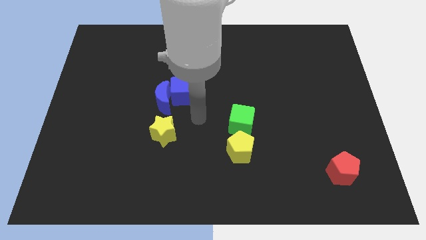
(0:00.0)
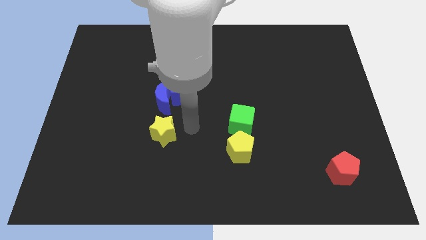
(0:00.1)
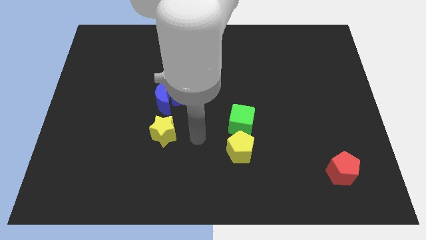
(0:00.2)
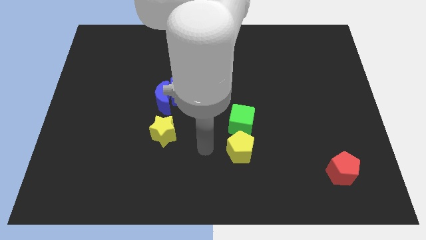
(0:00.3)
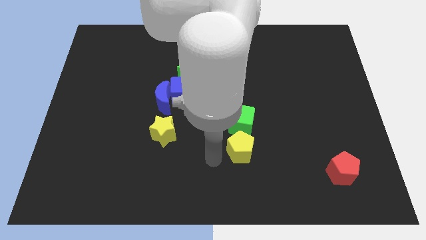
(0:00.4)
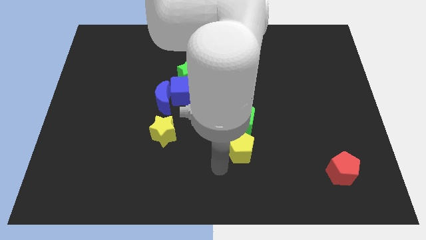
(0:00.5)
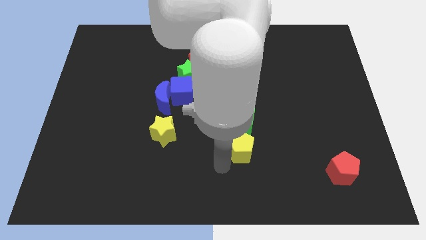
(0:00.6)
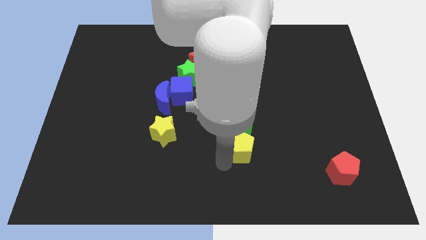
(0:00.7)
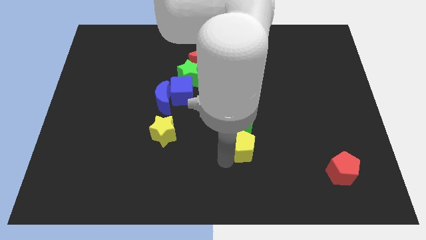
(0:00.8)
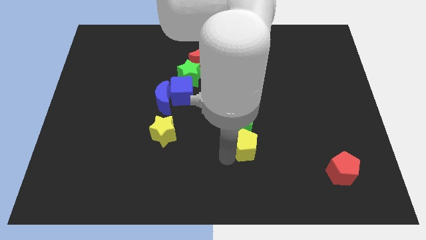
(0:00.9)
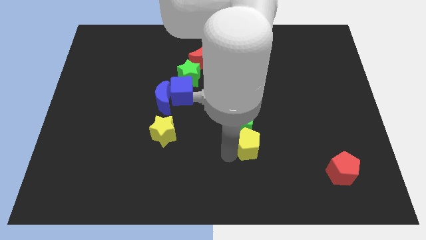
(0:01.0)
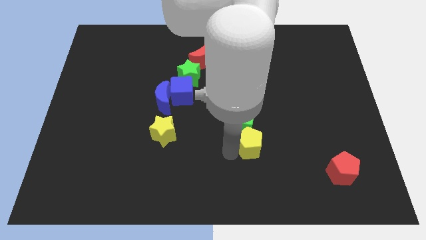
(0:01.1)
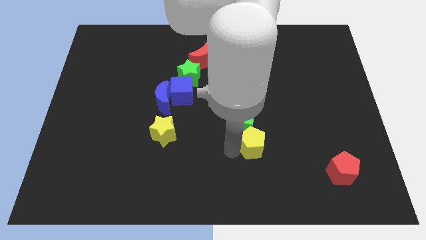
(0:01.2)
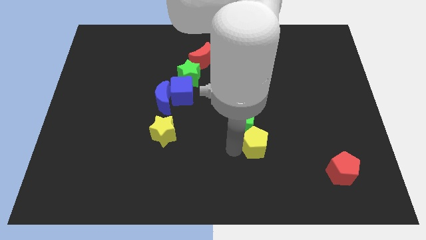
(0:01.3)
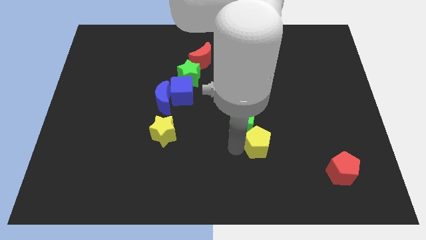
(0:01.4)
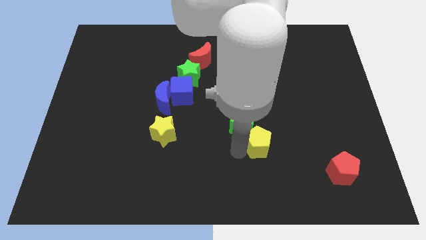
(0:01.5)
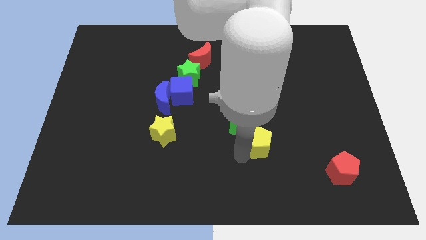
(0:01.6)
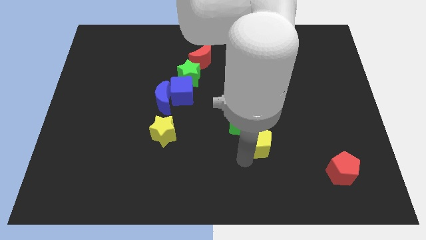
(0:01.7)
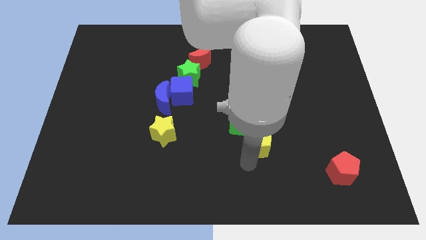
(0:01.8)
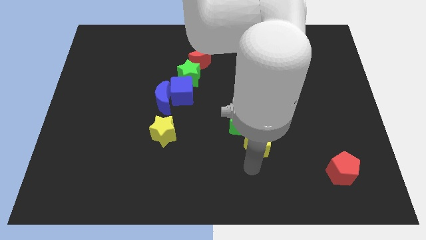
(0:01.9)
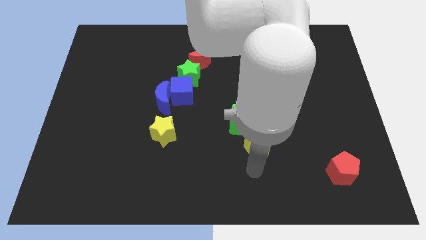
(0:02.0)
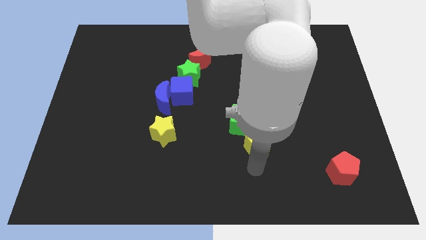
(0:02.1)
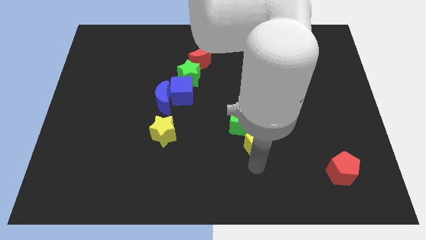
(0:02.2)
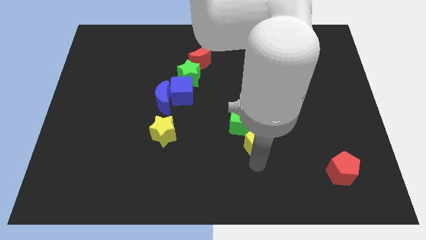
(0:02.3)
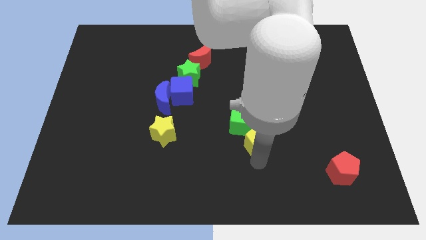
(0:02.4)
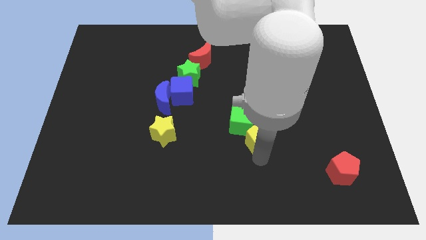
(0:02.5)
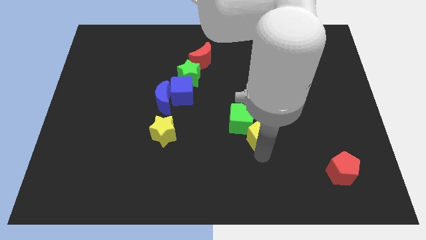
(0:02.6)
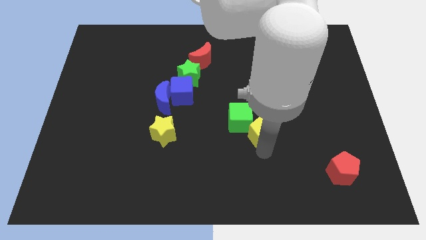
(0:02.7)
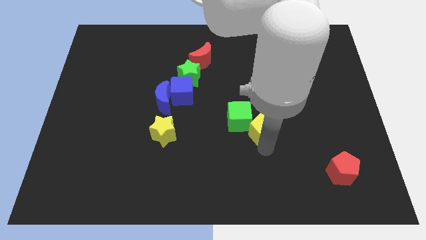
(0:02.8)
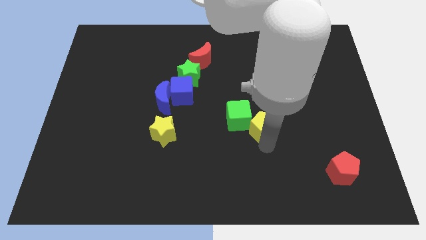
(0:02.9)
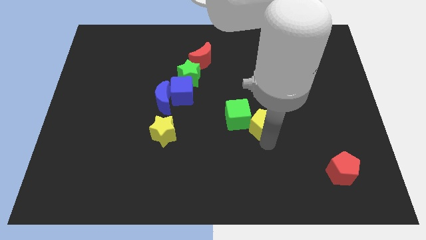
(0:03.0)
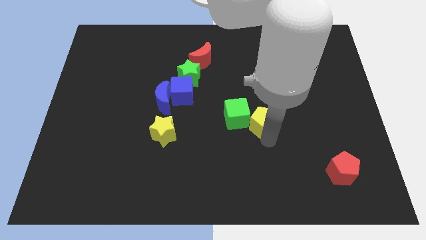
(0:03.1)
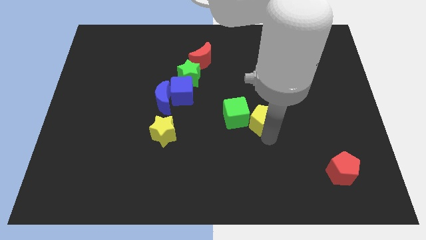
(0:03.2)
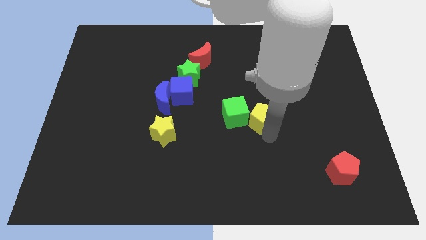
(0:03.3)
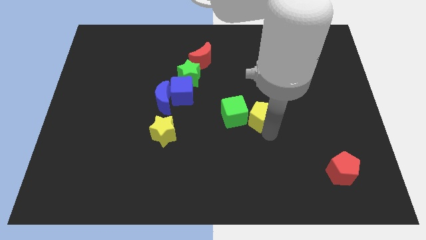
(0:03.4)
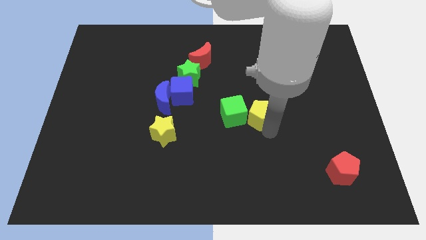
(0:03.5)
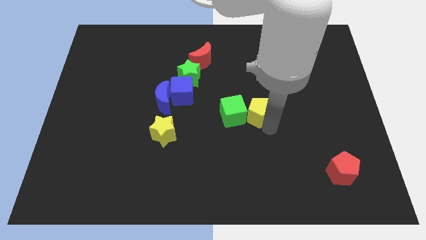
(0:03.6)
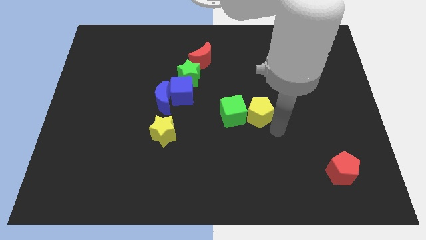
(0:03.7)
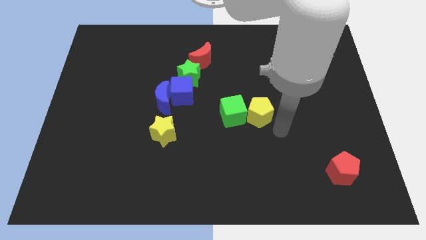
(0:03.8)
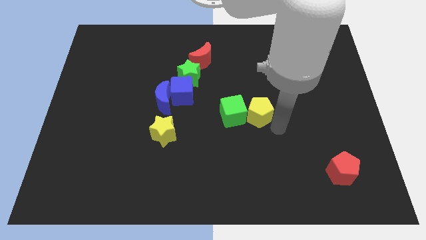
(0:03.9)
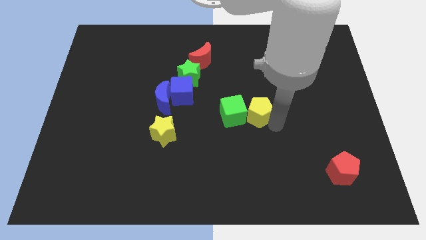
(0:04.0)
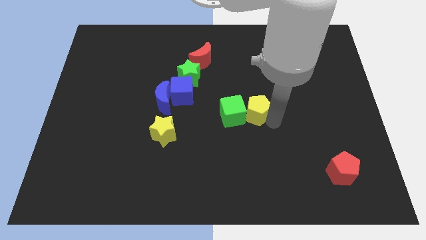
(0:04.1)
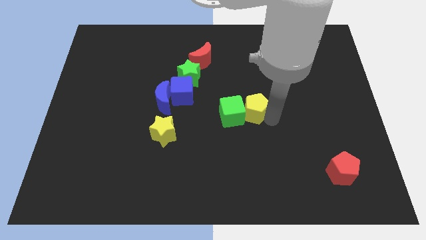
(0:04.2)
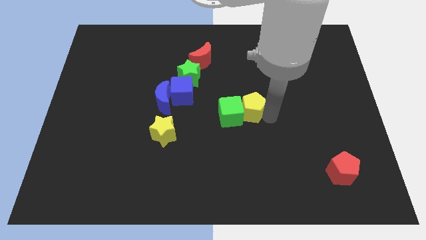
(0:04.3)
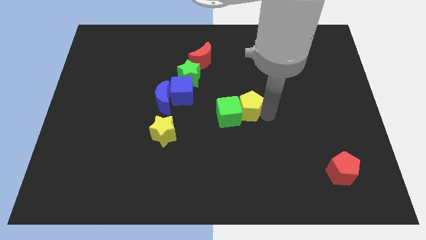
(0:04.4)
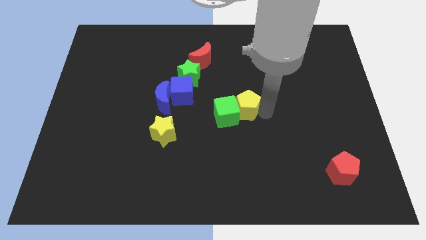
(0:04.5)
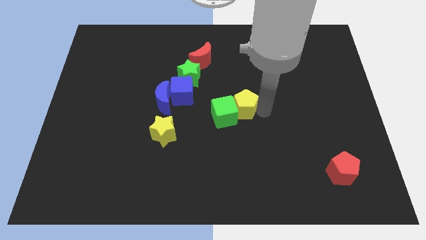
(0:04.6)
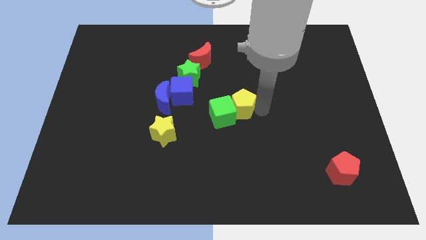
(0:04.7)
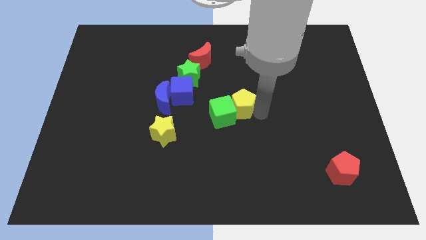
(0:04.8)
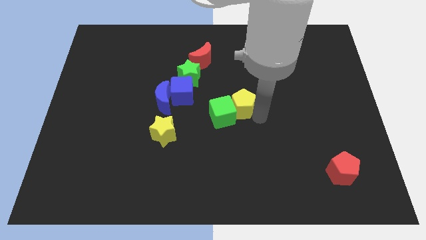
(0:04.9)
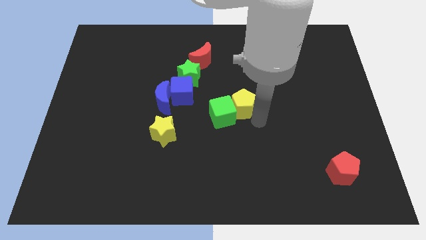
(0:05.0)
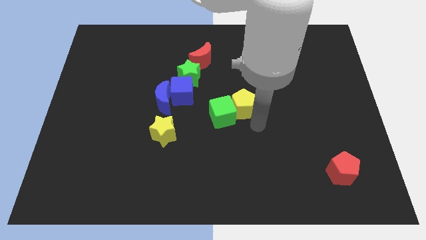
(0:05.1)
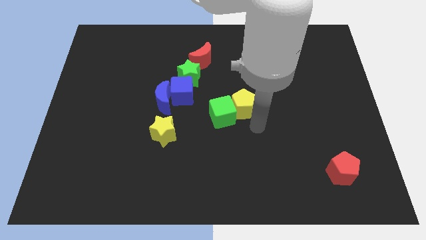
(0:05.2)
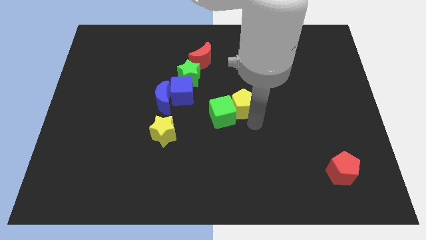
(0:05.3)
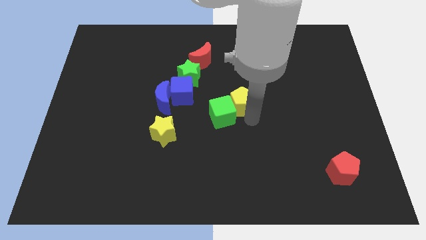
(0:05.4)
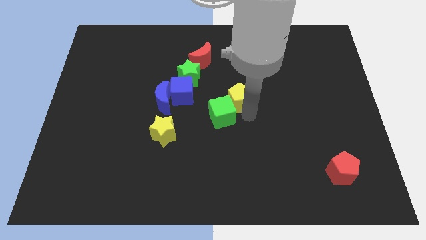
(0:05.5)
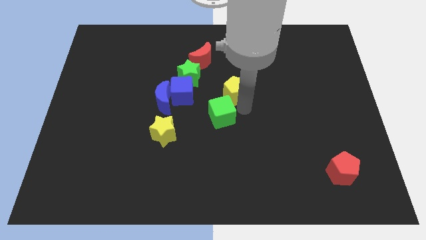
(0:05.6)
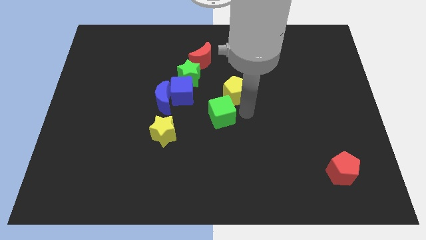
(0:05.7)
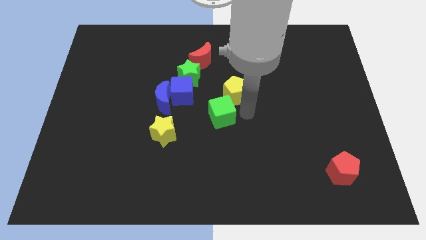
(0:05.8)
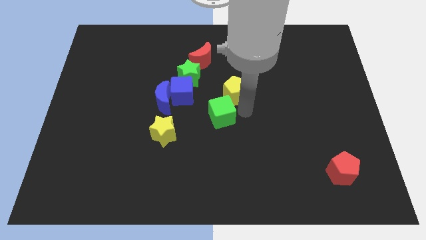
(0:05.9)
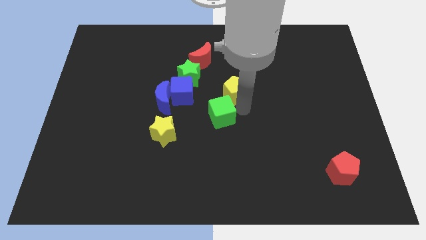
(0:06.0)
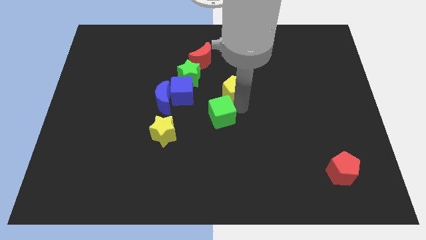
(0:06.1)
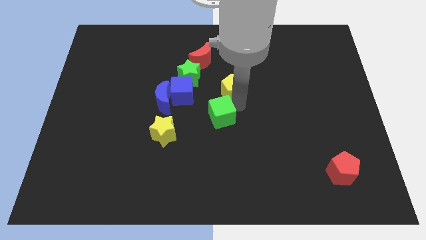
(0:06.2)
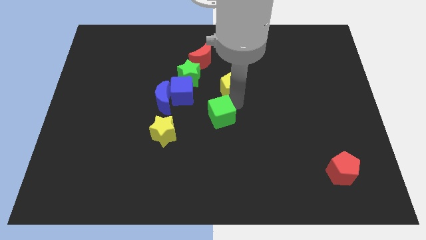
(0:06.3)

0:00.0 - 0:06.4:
move the yellow pentagon diagonally down and to the right of the red moon

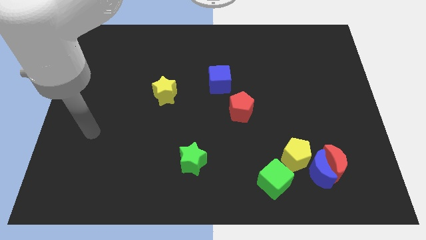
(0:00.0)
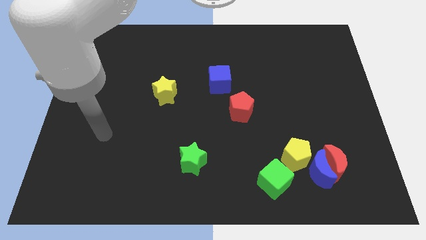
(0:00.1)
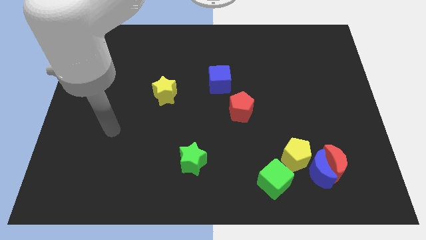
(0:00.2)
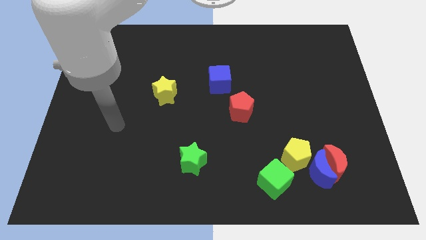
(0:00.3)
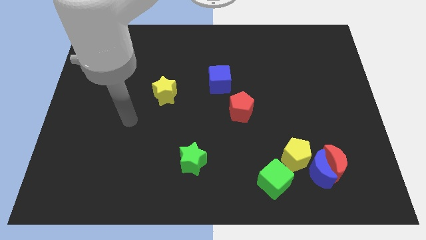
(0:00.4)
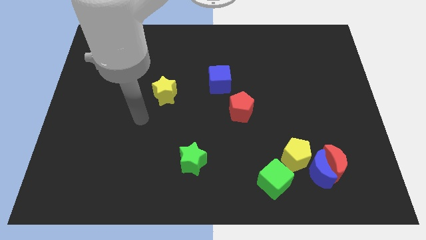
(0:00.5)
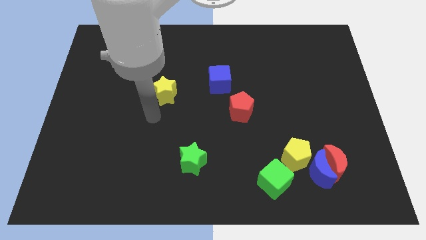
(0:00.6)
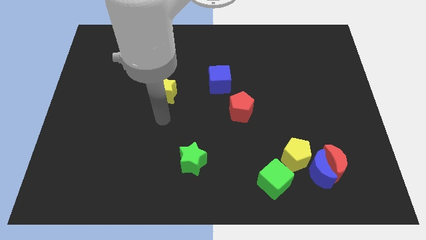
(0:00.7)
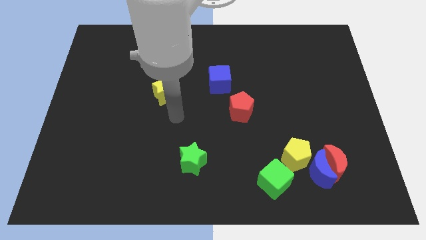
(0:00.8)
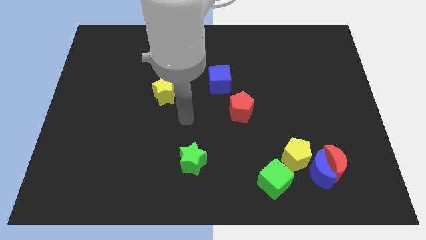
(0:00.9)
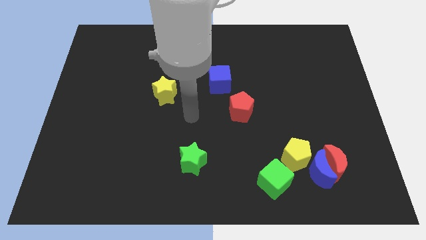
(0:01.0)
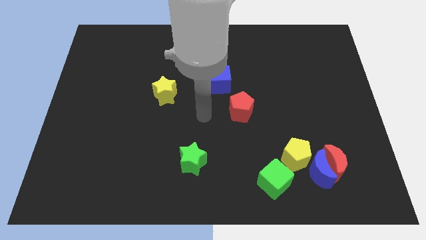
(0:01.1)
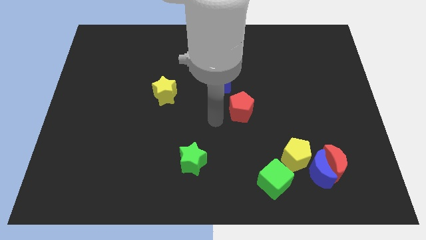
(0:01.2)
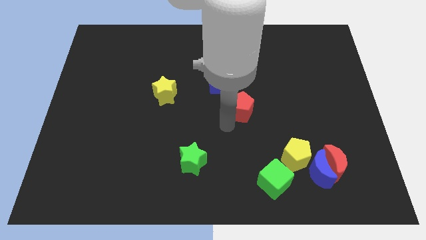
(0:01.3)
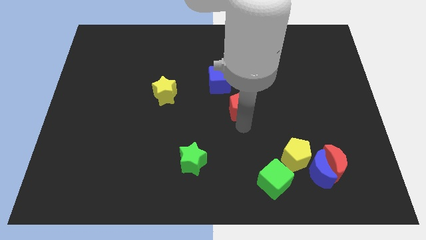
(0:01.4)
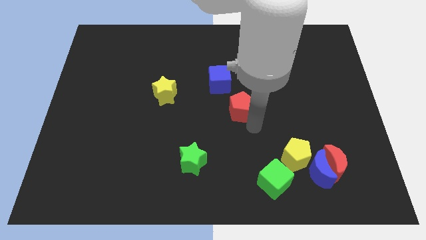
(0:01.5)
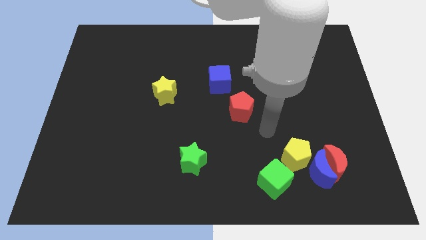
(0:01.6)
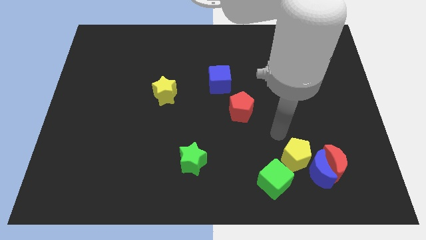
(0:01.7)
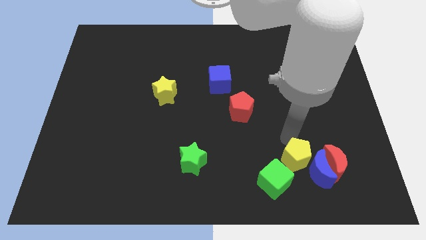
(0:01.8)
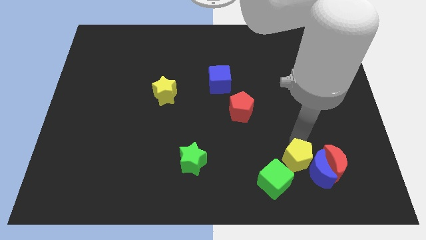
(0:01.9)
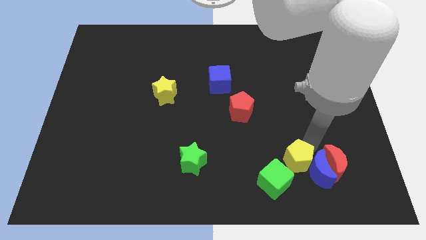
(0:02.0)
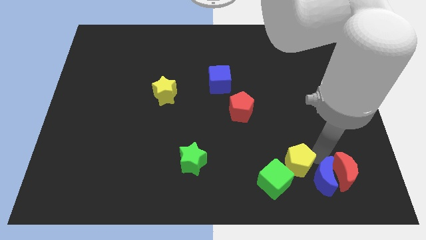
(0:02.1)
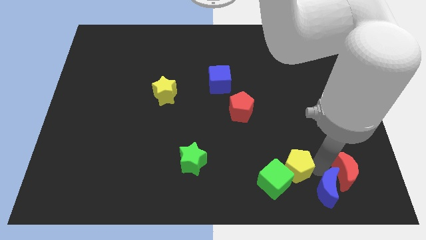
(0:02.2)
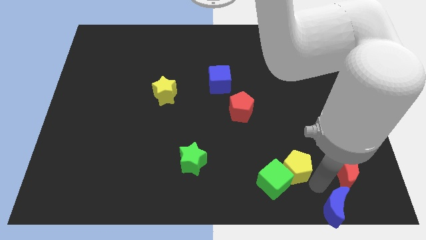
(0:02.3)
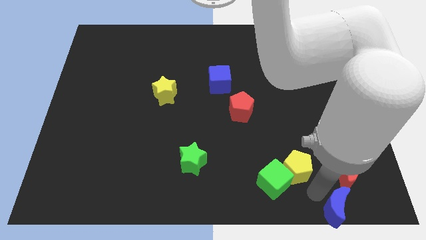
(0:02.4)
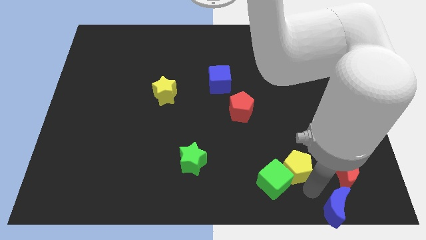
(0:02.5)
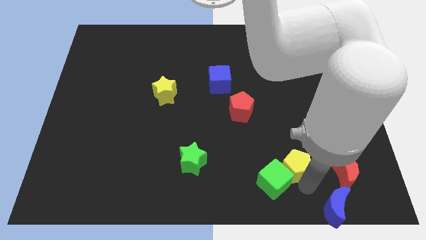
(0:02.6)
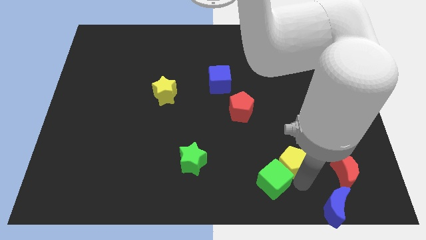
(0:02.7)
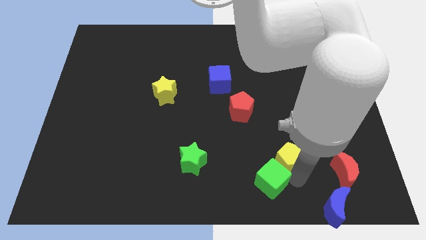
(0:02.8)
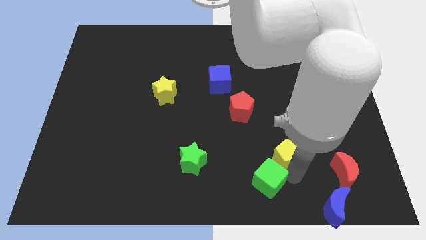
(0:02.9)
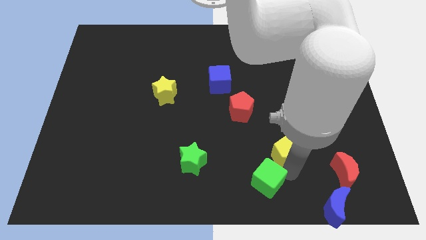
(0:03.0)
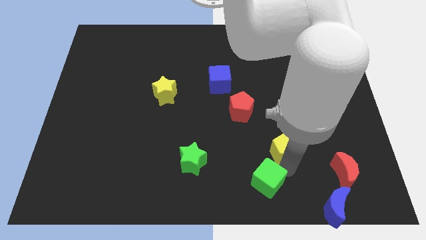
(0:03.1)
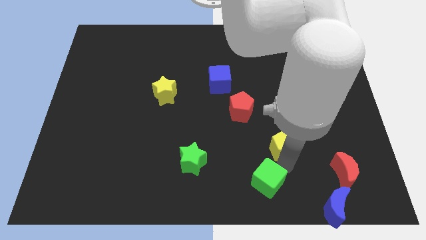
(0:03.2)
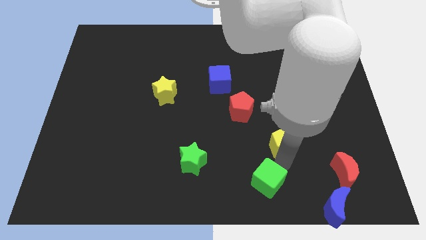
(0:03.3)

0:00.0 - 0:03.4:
push the yellow pentagon to the bottom right side of the red pentagon
